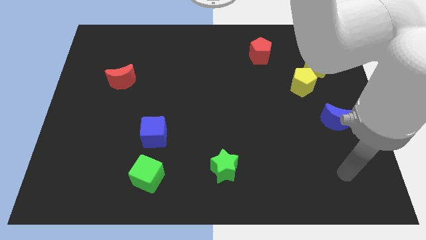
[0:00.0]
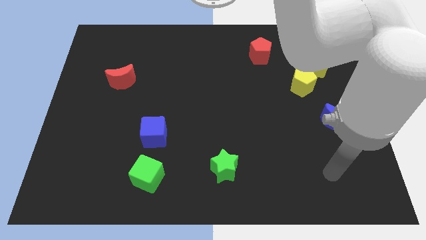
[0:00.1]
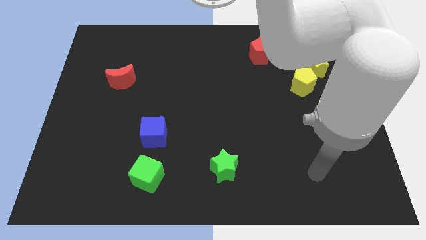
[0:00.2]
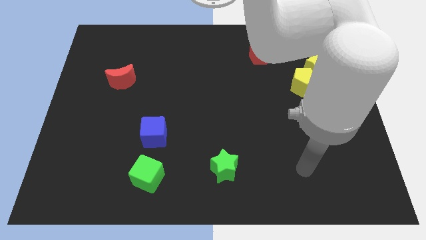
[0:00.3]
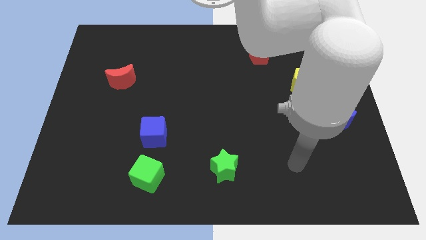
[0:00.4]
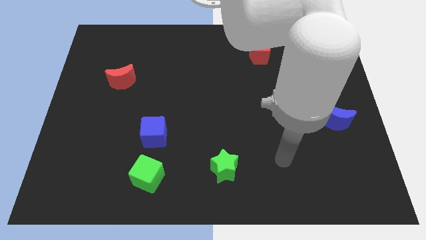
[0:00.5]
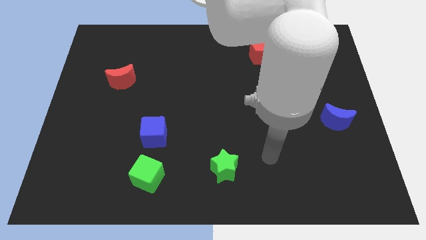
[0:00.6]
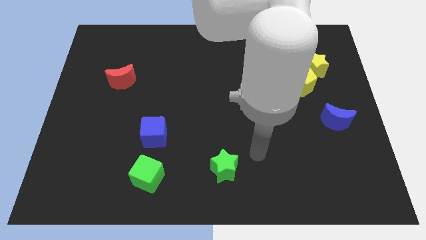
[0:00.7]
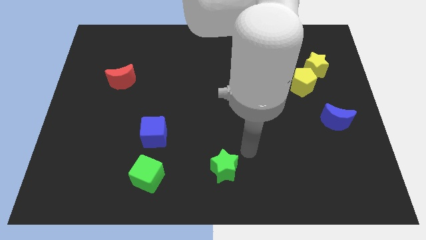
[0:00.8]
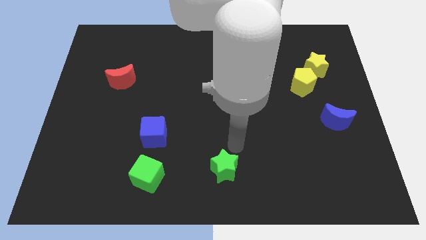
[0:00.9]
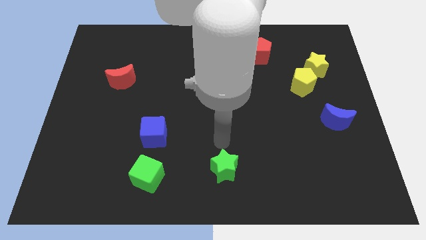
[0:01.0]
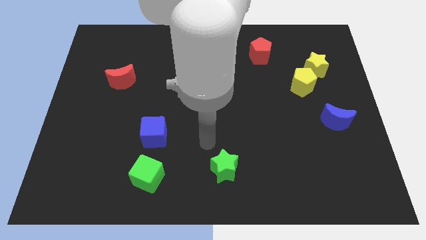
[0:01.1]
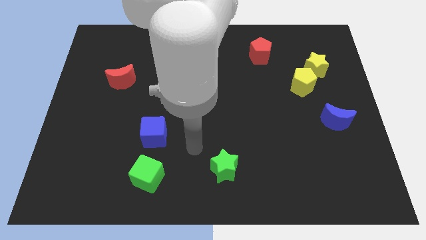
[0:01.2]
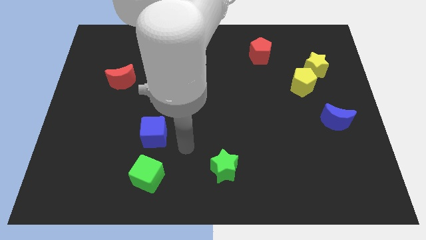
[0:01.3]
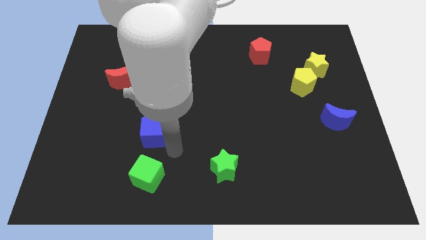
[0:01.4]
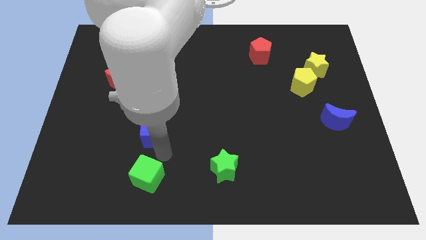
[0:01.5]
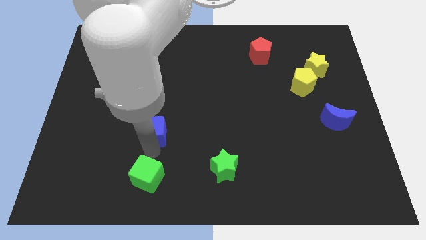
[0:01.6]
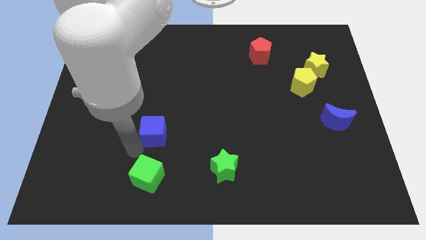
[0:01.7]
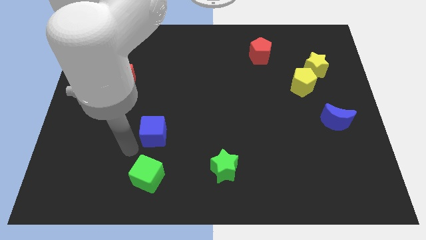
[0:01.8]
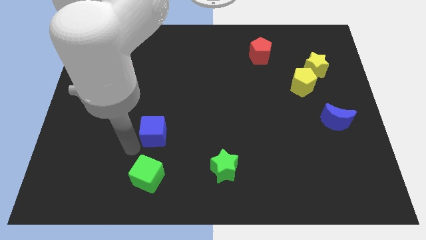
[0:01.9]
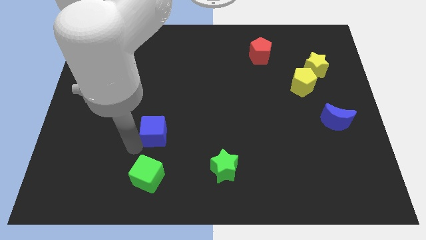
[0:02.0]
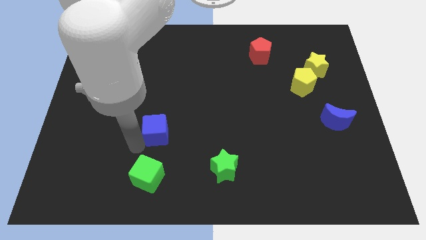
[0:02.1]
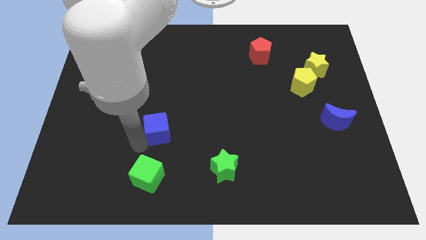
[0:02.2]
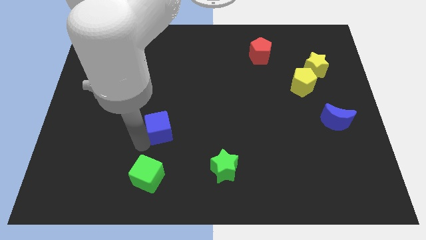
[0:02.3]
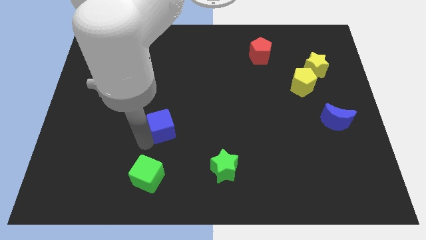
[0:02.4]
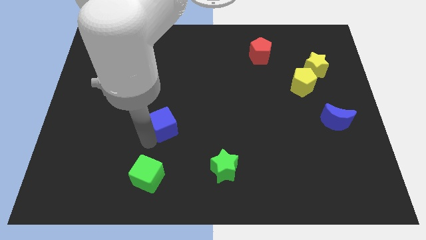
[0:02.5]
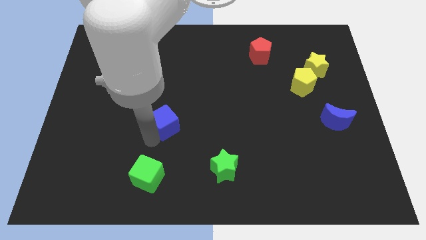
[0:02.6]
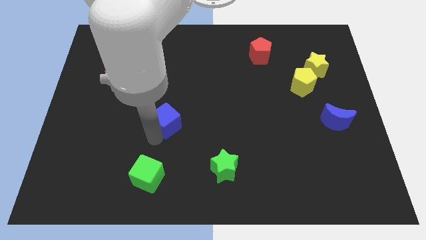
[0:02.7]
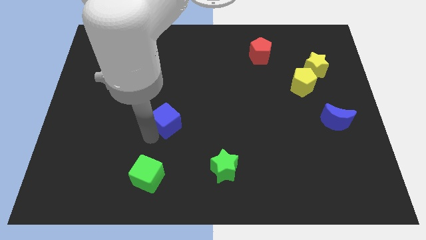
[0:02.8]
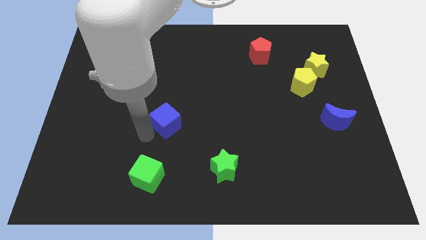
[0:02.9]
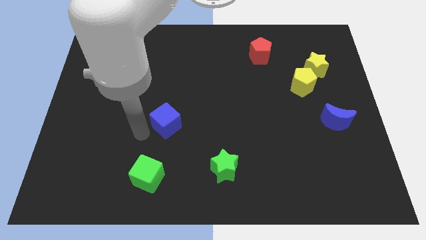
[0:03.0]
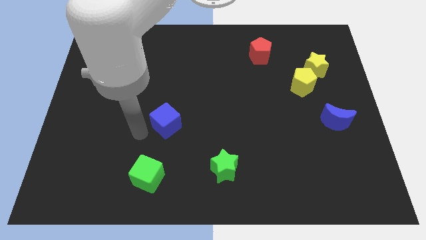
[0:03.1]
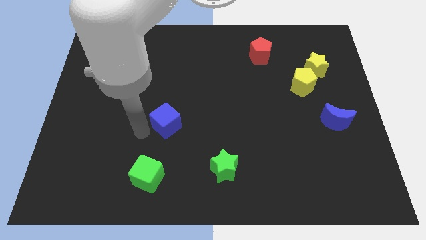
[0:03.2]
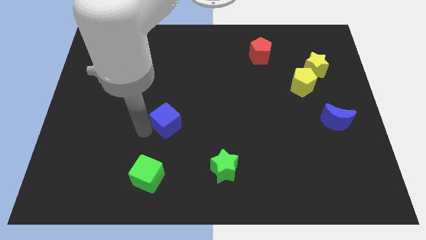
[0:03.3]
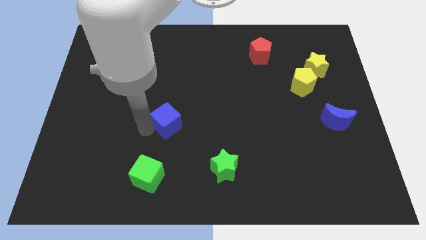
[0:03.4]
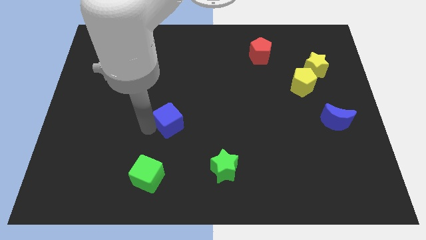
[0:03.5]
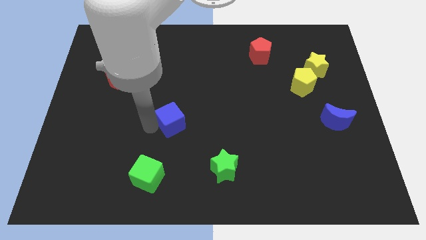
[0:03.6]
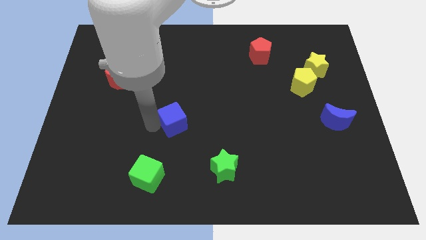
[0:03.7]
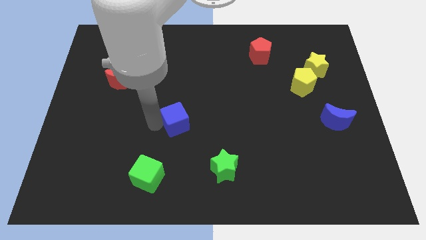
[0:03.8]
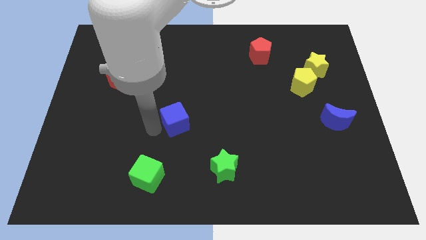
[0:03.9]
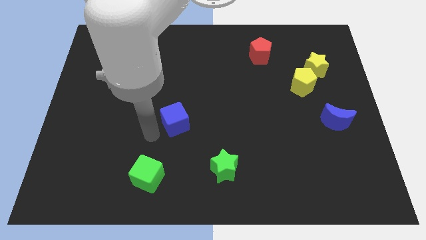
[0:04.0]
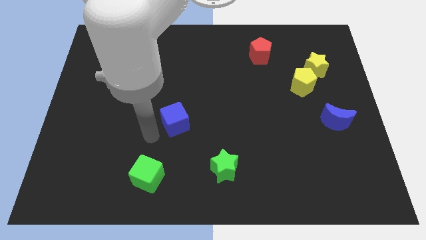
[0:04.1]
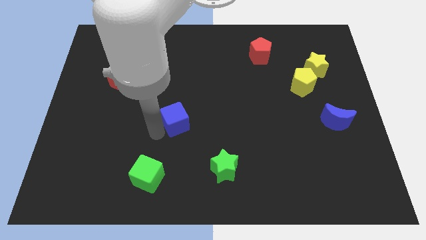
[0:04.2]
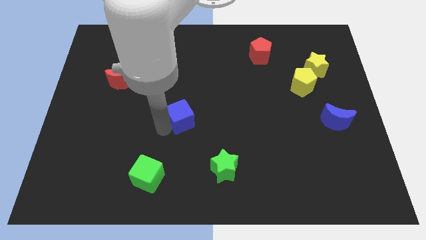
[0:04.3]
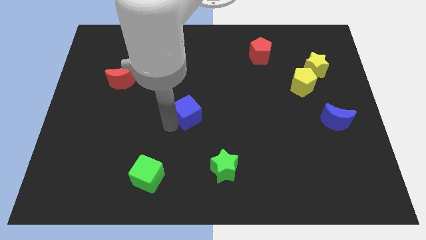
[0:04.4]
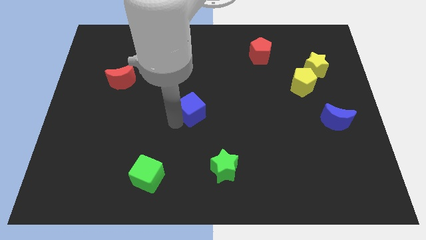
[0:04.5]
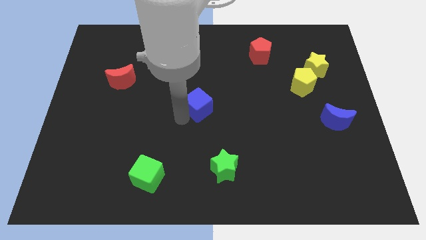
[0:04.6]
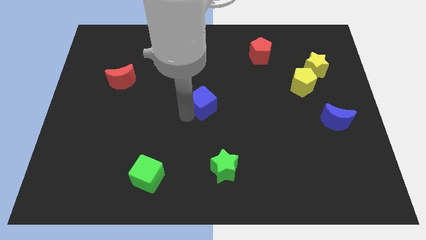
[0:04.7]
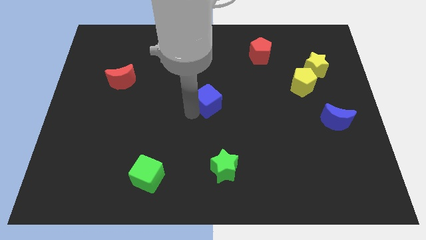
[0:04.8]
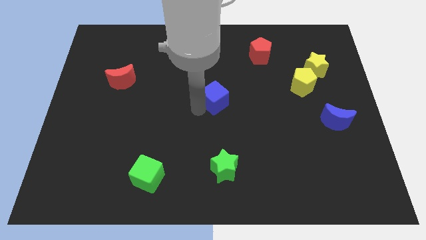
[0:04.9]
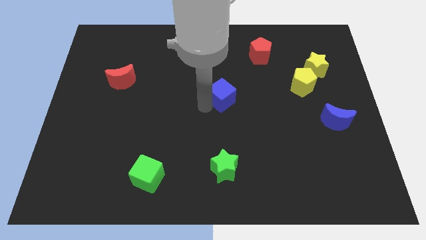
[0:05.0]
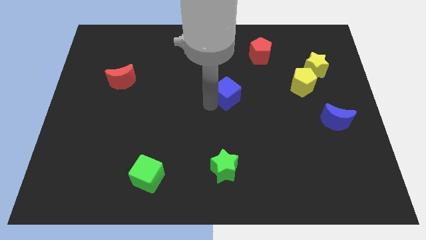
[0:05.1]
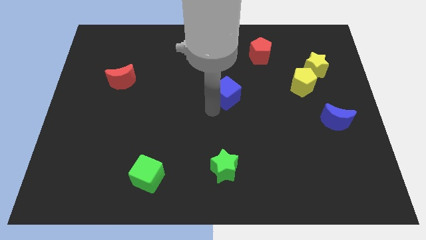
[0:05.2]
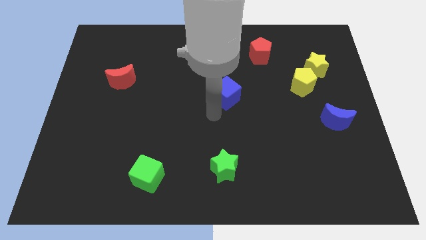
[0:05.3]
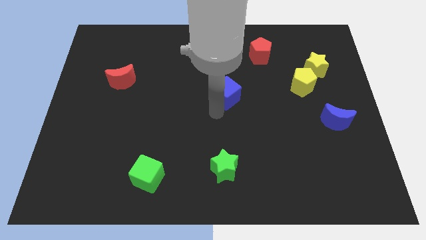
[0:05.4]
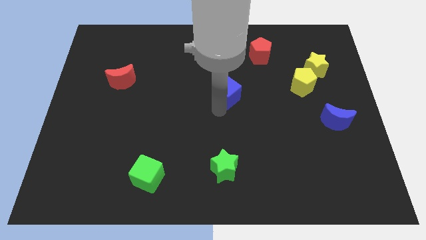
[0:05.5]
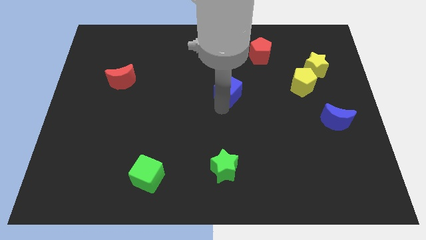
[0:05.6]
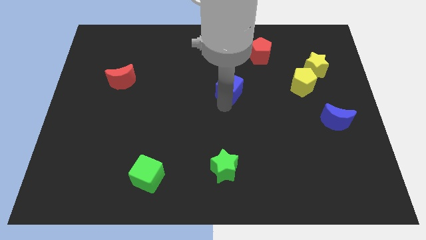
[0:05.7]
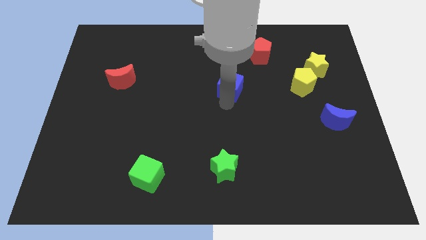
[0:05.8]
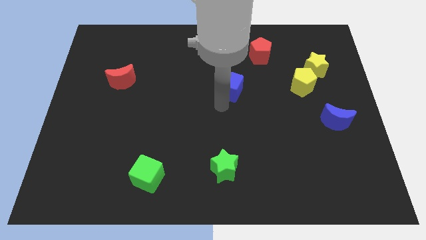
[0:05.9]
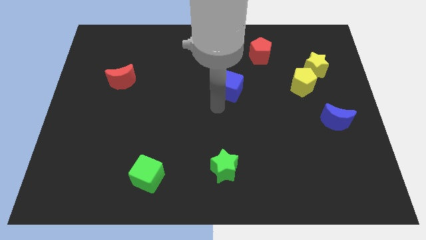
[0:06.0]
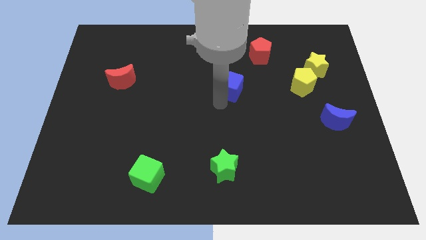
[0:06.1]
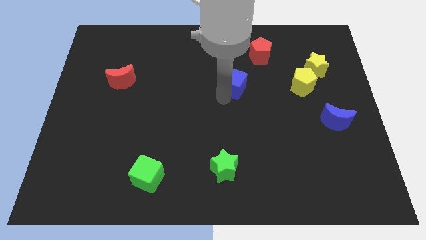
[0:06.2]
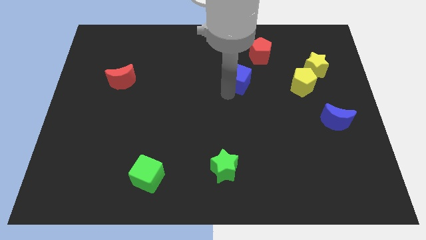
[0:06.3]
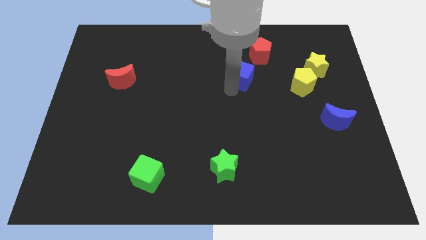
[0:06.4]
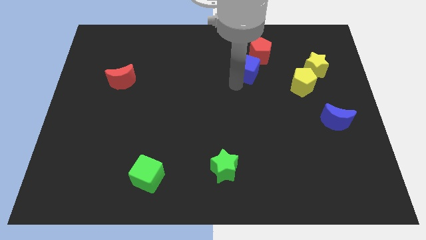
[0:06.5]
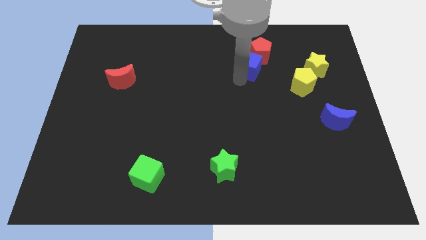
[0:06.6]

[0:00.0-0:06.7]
push the blue cube to the red pentagon

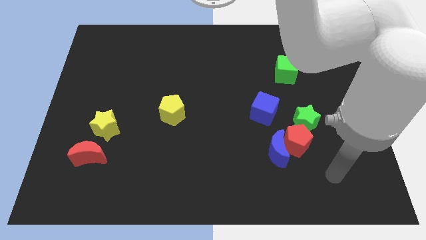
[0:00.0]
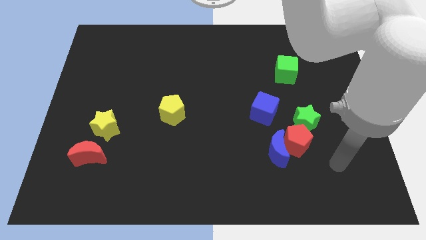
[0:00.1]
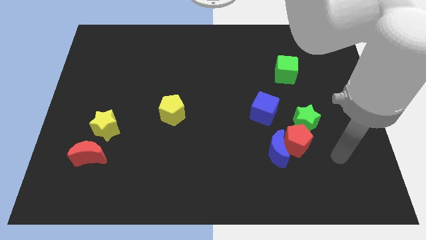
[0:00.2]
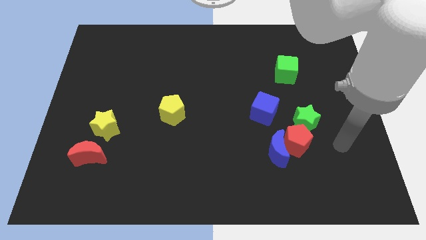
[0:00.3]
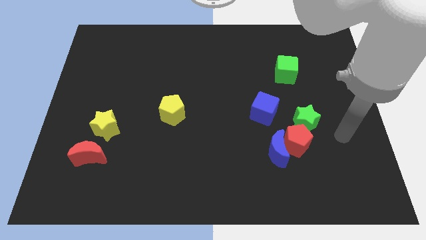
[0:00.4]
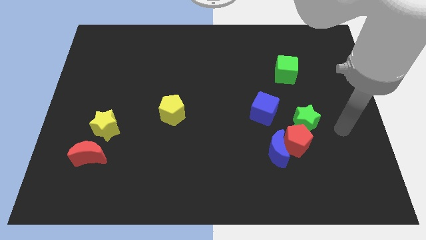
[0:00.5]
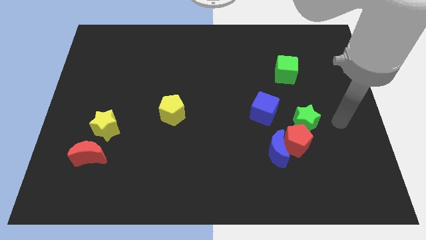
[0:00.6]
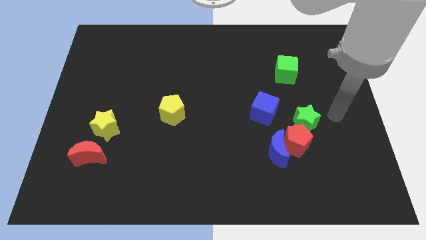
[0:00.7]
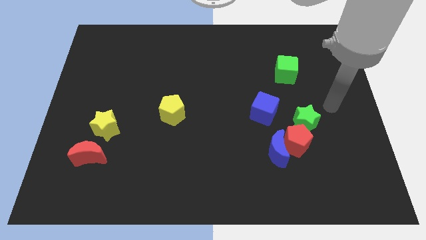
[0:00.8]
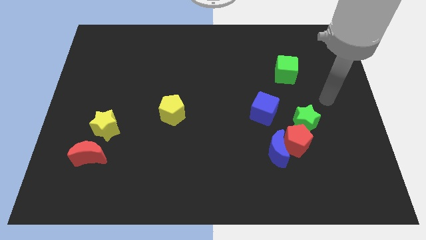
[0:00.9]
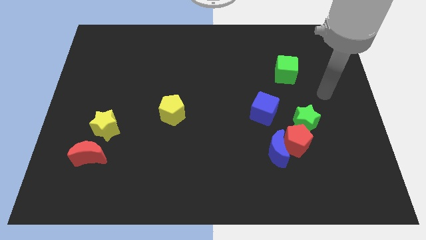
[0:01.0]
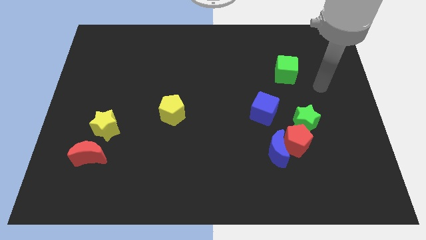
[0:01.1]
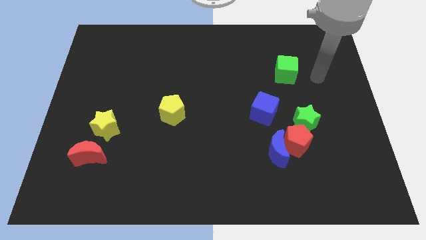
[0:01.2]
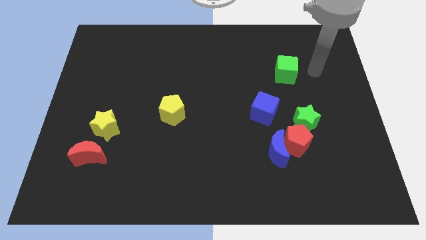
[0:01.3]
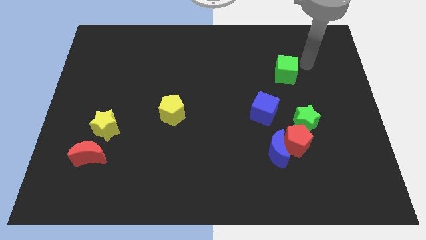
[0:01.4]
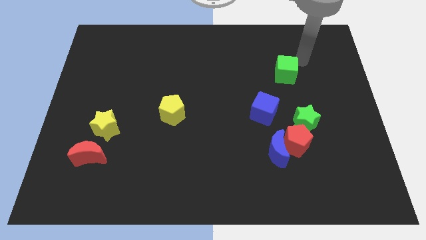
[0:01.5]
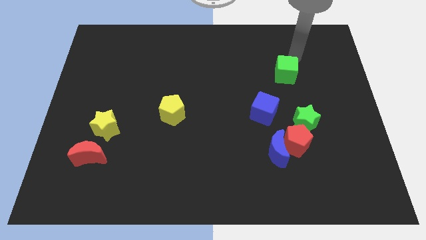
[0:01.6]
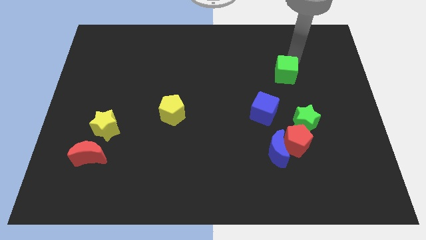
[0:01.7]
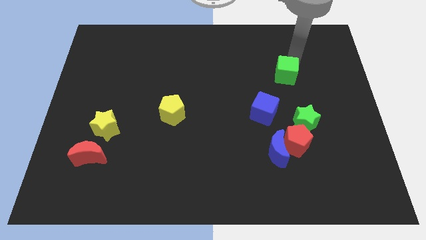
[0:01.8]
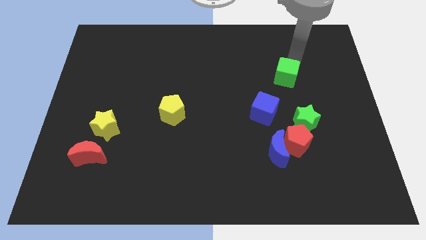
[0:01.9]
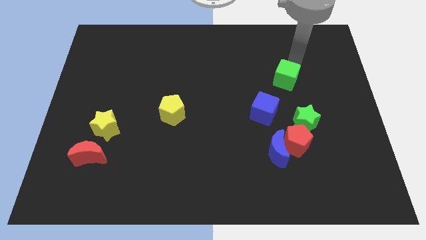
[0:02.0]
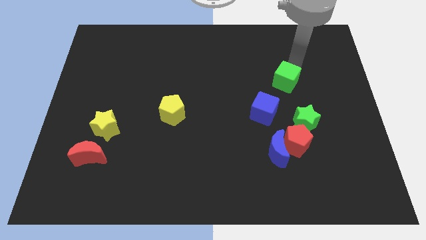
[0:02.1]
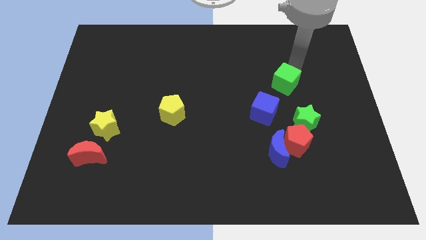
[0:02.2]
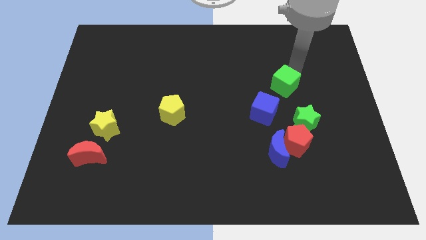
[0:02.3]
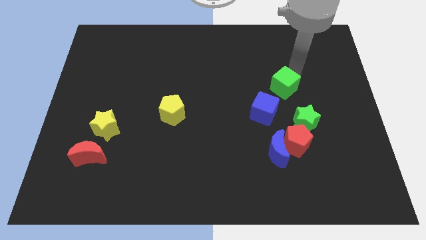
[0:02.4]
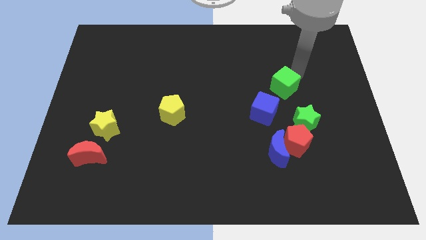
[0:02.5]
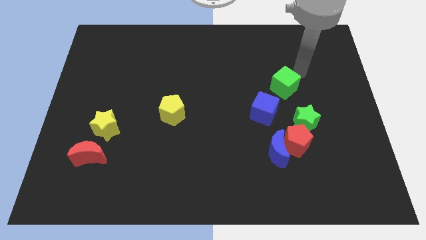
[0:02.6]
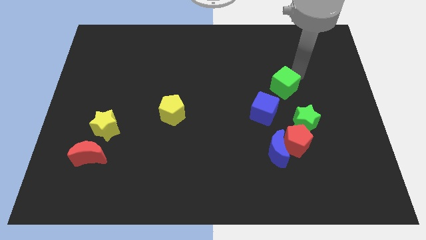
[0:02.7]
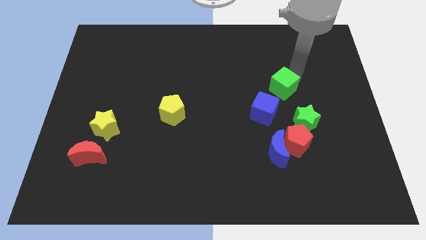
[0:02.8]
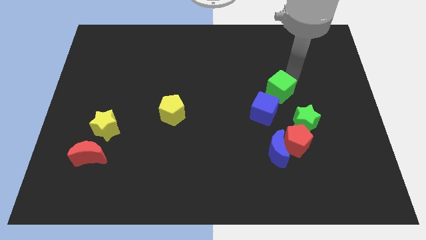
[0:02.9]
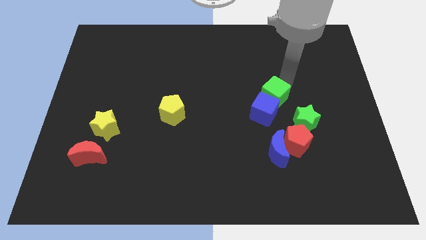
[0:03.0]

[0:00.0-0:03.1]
slide the green cube close to the blue cube
